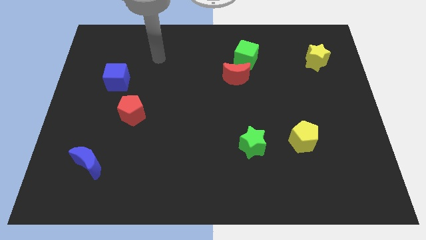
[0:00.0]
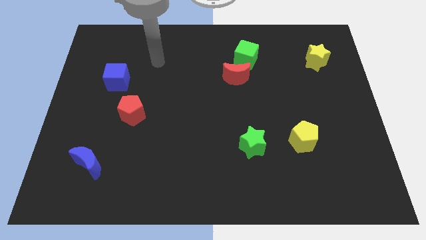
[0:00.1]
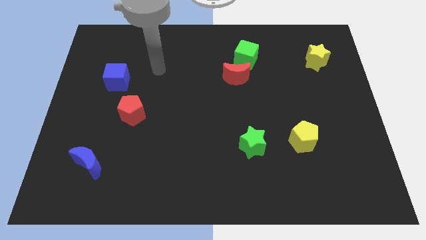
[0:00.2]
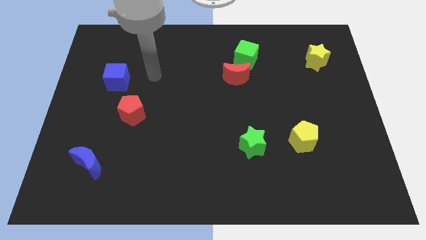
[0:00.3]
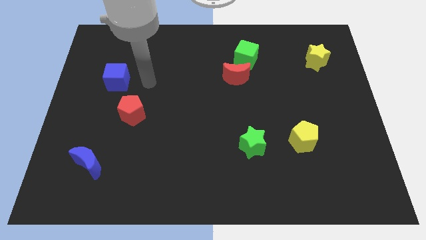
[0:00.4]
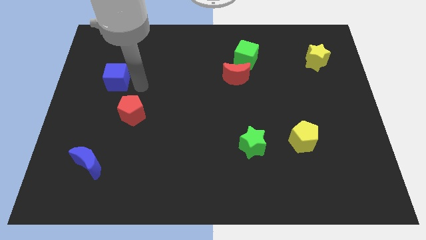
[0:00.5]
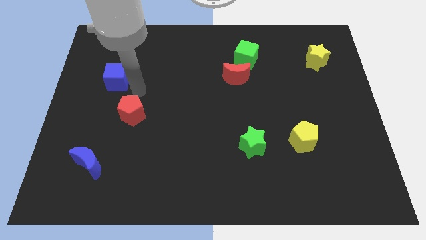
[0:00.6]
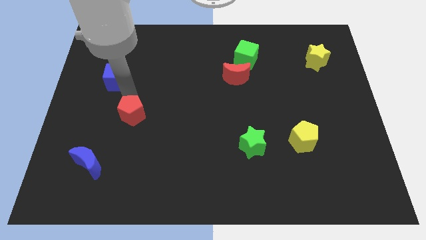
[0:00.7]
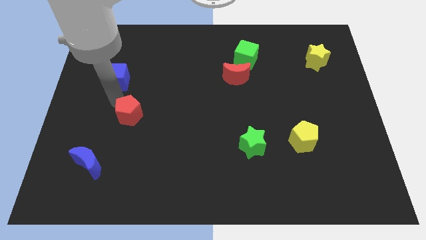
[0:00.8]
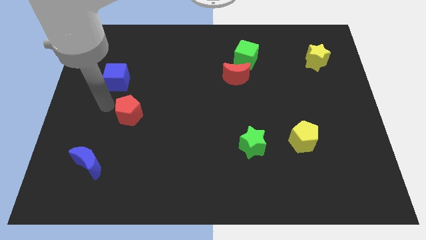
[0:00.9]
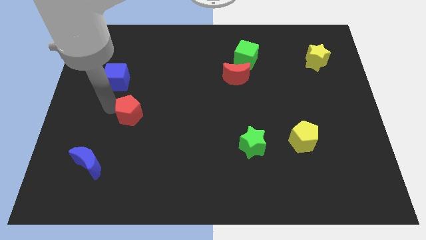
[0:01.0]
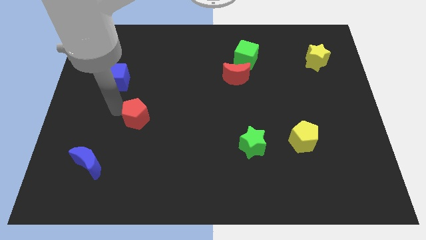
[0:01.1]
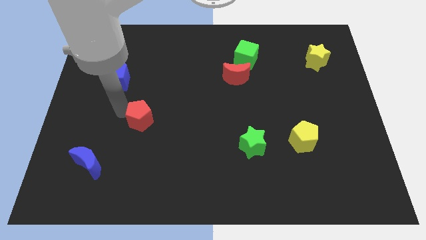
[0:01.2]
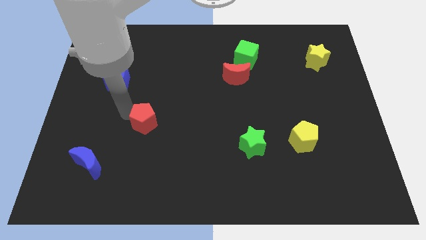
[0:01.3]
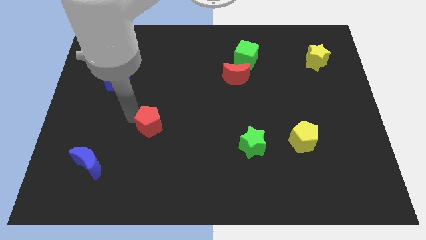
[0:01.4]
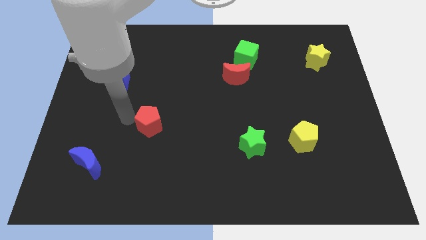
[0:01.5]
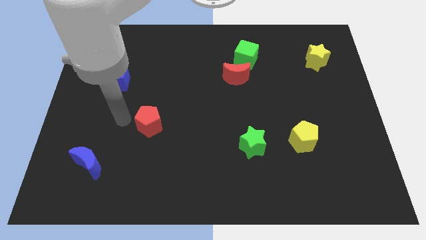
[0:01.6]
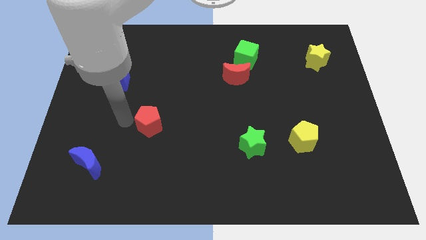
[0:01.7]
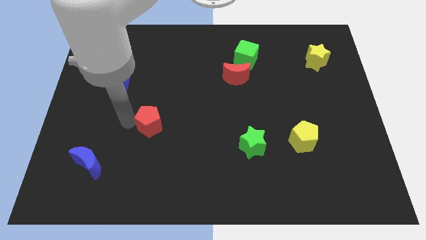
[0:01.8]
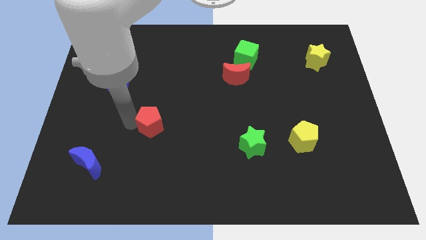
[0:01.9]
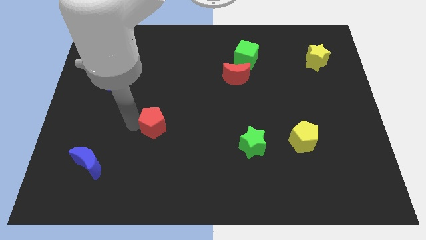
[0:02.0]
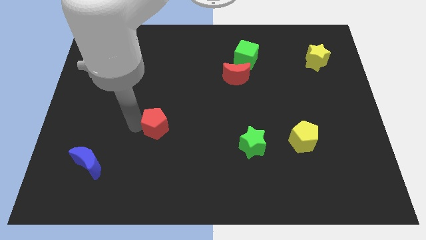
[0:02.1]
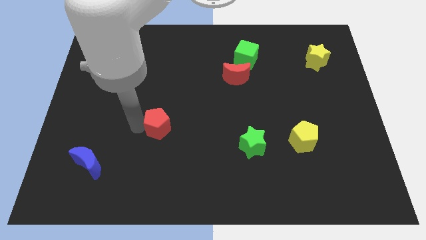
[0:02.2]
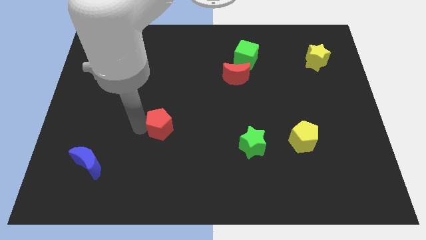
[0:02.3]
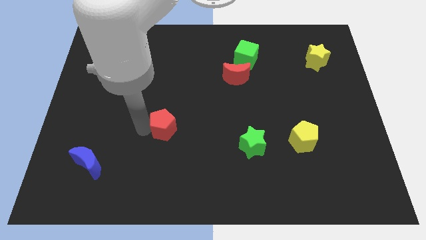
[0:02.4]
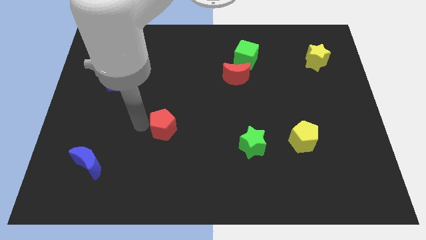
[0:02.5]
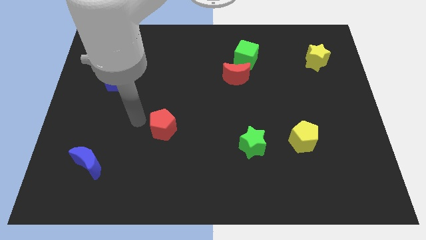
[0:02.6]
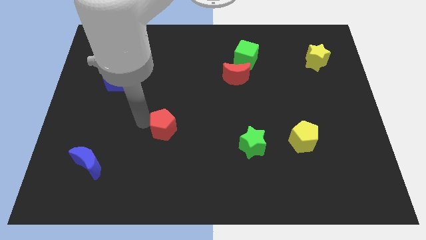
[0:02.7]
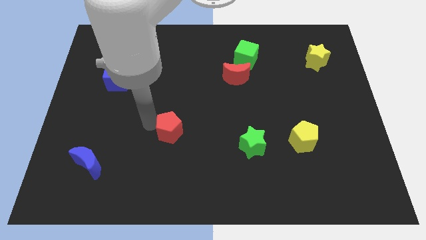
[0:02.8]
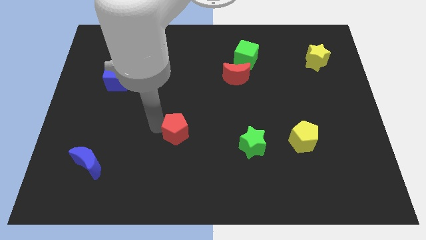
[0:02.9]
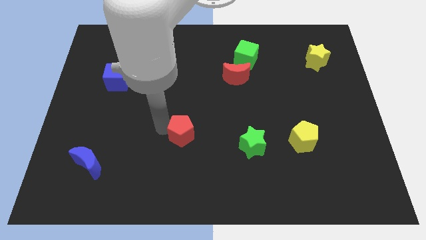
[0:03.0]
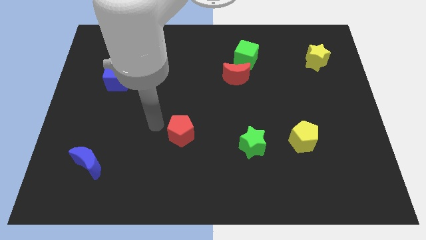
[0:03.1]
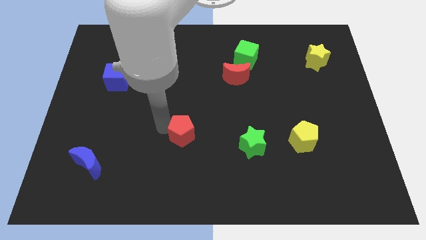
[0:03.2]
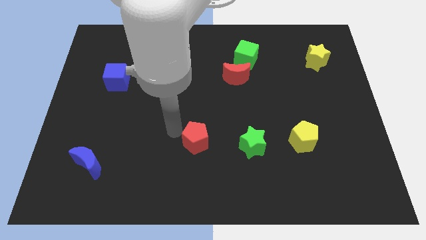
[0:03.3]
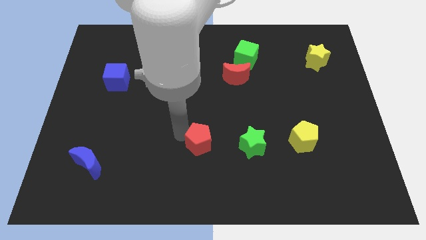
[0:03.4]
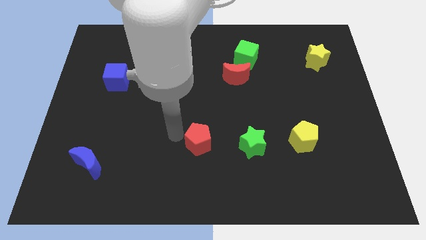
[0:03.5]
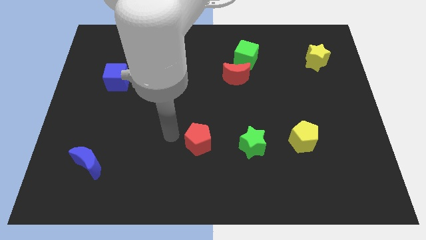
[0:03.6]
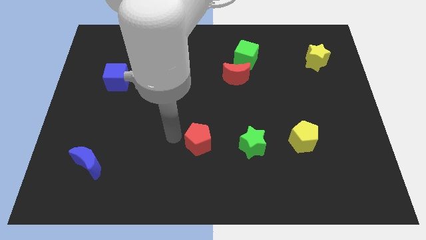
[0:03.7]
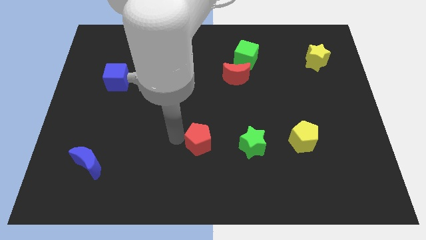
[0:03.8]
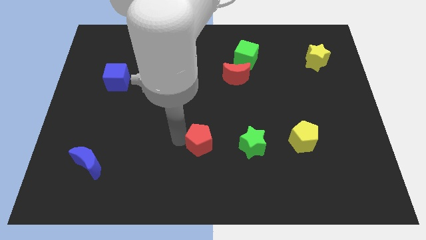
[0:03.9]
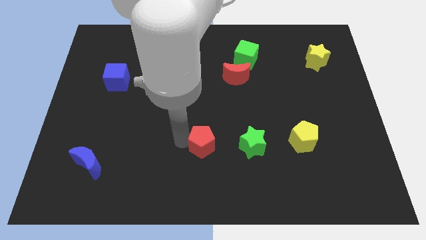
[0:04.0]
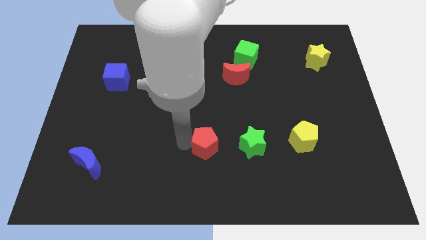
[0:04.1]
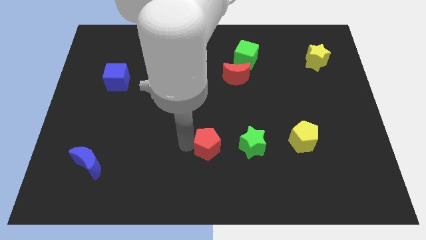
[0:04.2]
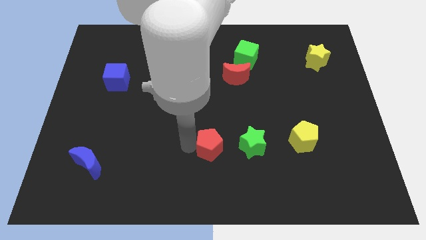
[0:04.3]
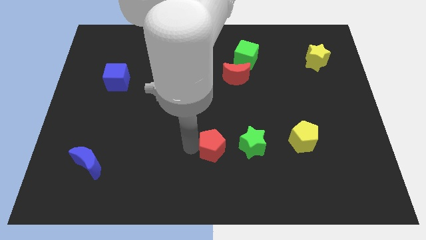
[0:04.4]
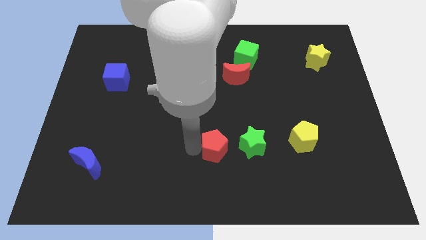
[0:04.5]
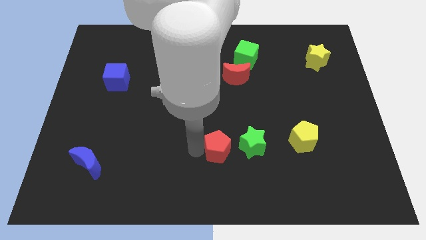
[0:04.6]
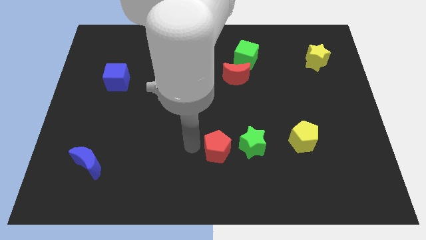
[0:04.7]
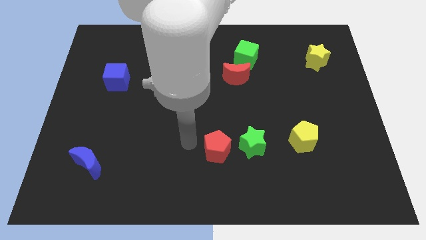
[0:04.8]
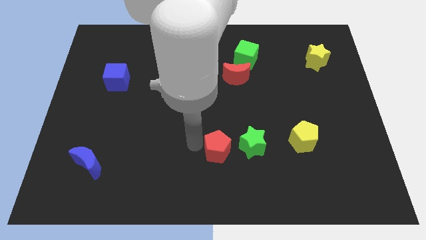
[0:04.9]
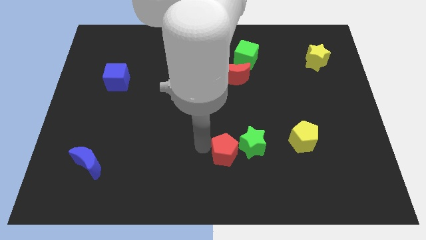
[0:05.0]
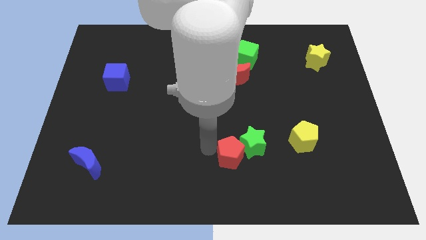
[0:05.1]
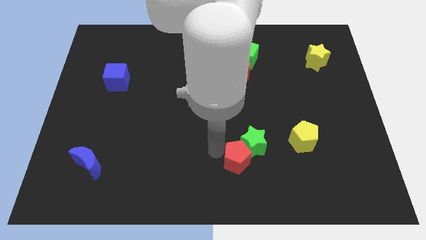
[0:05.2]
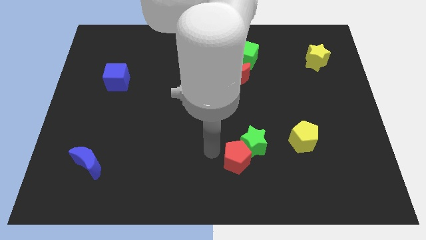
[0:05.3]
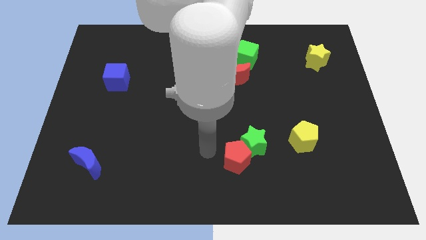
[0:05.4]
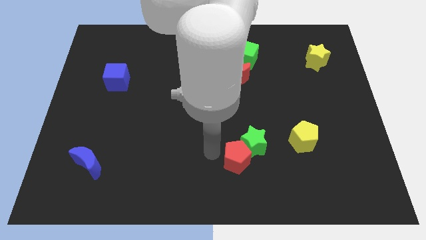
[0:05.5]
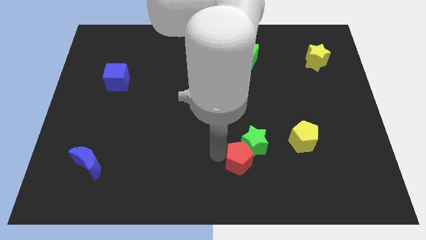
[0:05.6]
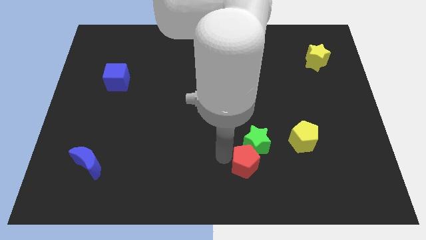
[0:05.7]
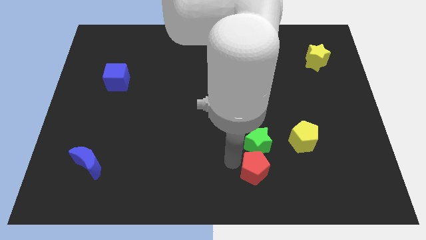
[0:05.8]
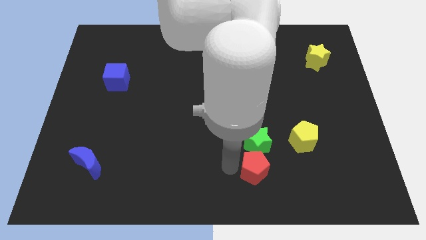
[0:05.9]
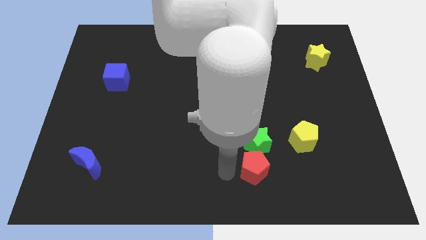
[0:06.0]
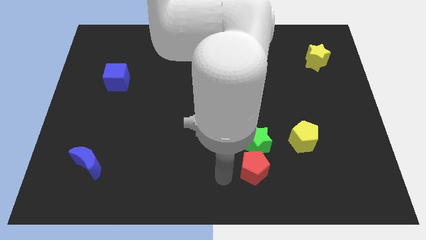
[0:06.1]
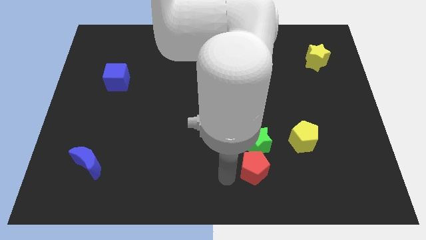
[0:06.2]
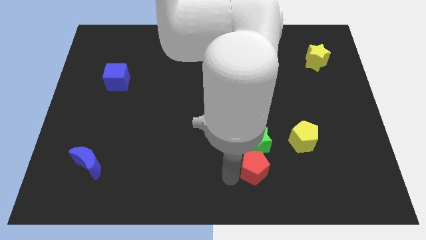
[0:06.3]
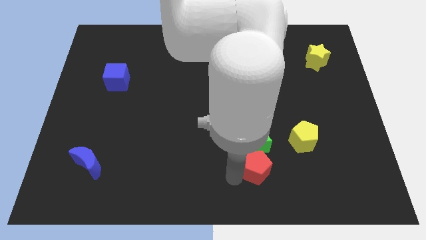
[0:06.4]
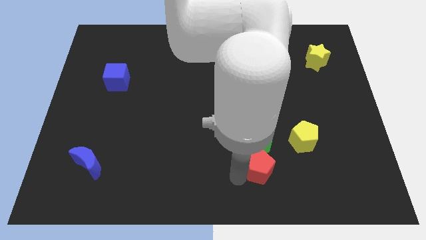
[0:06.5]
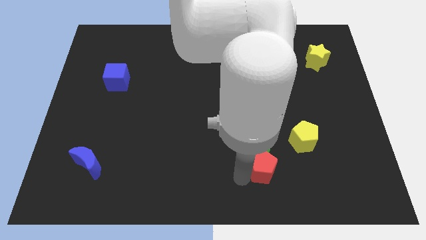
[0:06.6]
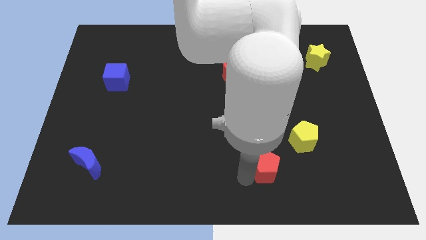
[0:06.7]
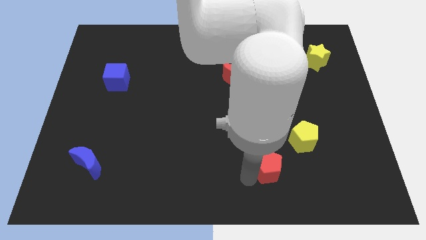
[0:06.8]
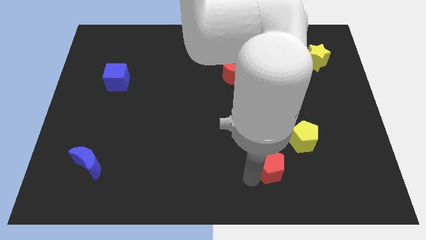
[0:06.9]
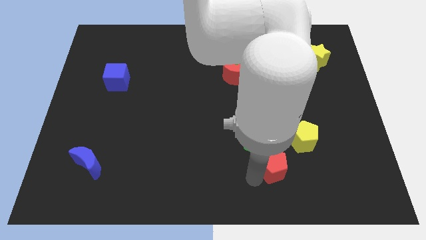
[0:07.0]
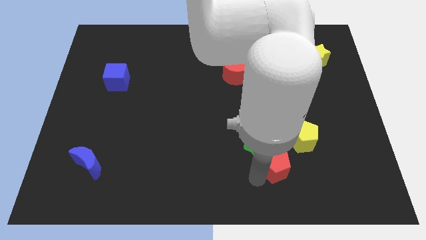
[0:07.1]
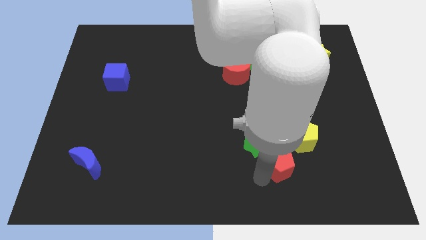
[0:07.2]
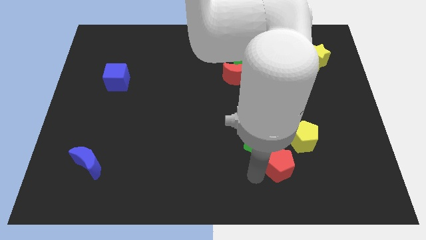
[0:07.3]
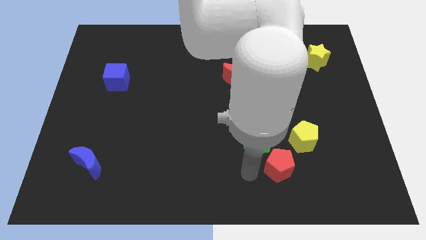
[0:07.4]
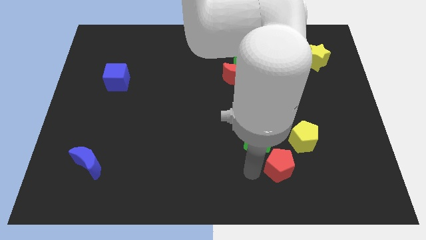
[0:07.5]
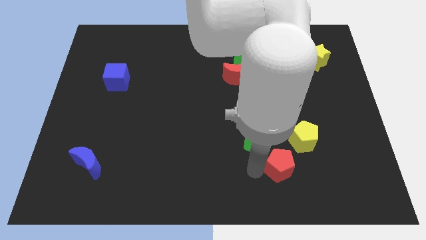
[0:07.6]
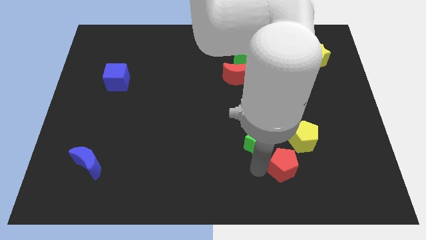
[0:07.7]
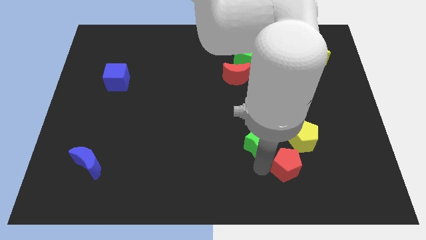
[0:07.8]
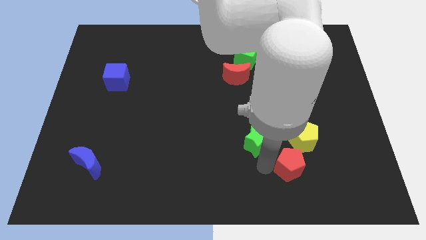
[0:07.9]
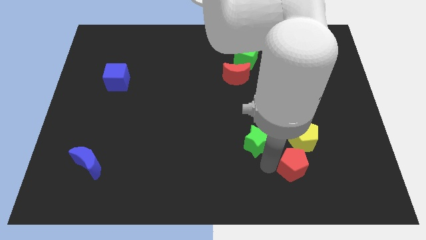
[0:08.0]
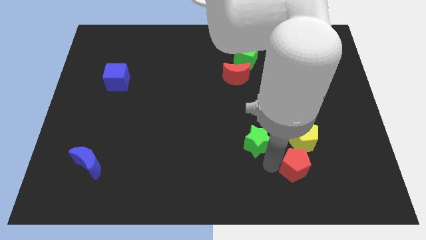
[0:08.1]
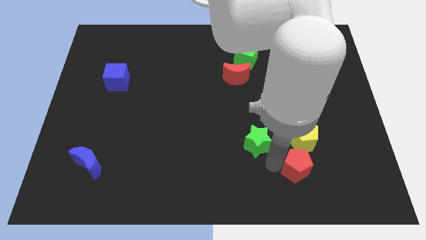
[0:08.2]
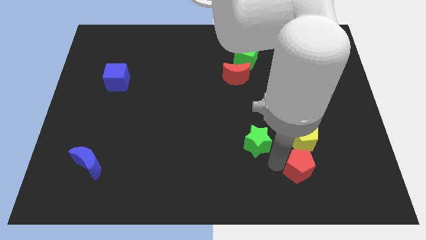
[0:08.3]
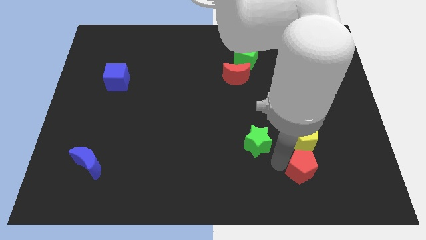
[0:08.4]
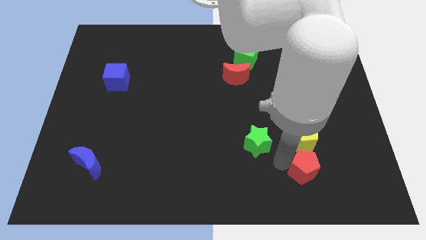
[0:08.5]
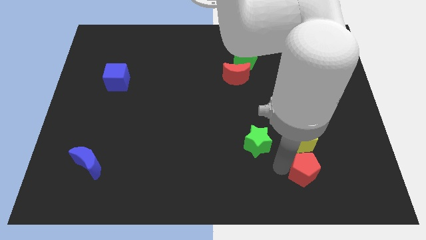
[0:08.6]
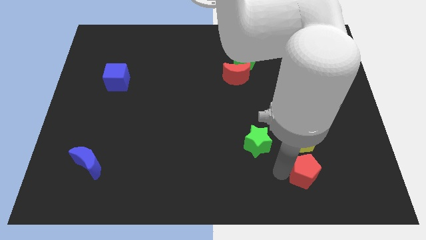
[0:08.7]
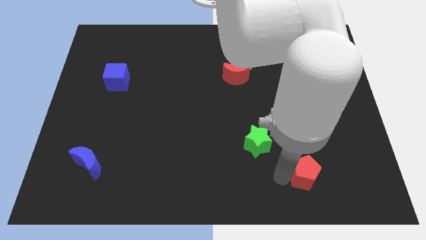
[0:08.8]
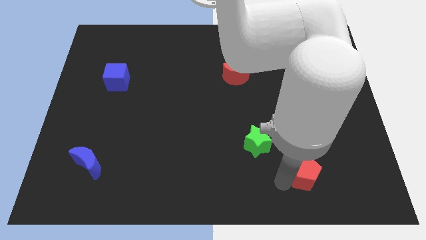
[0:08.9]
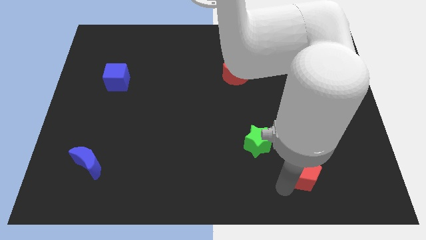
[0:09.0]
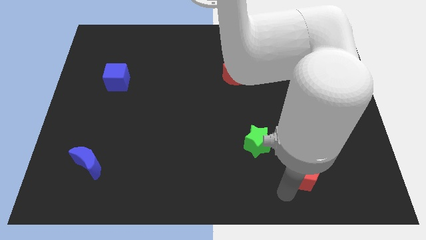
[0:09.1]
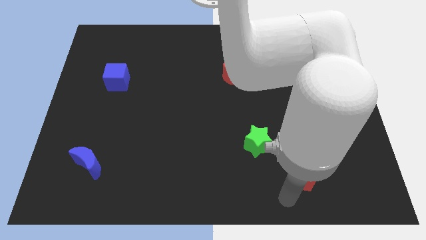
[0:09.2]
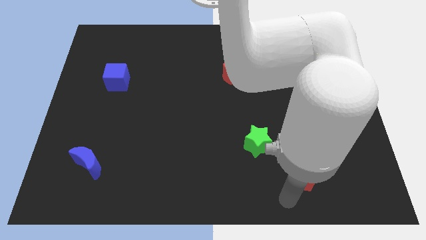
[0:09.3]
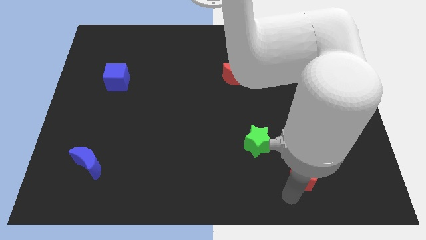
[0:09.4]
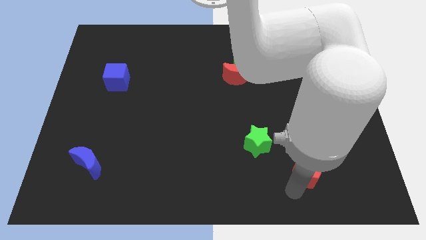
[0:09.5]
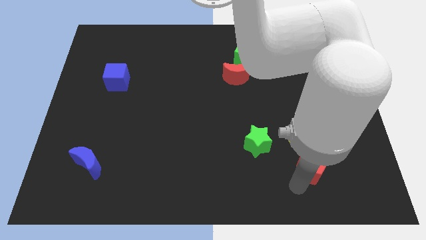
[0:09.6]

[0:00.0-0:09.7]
slide the red pentagon to the bottom right of the yellow pentagon
